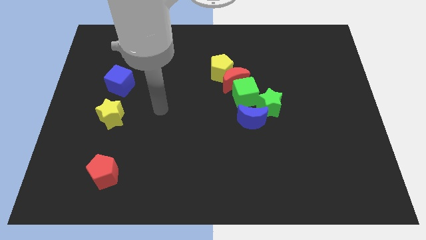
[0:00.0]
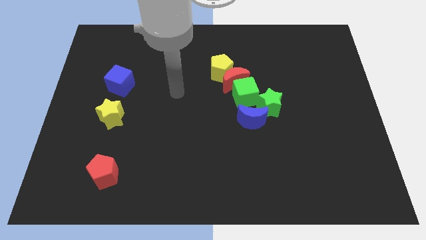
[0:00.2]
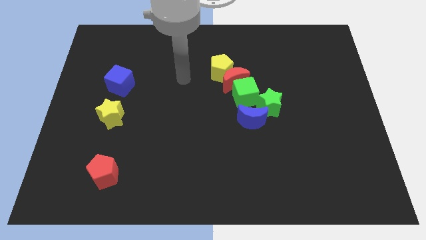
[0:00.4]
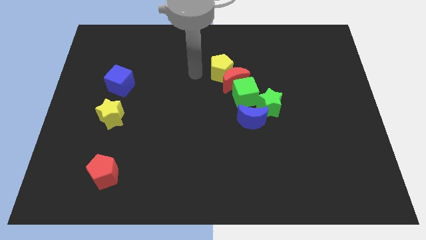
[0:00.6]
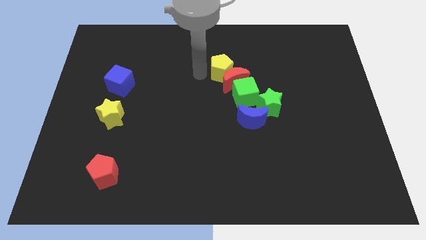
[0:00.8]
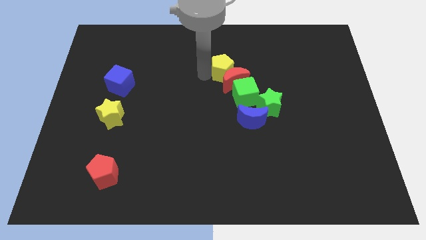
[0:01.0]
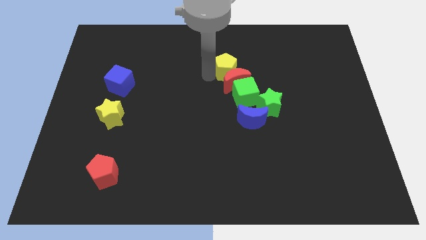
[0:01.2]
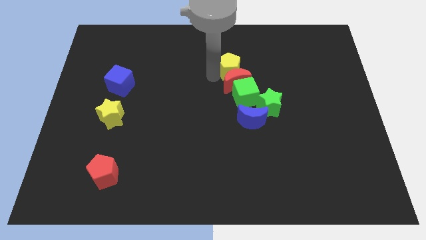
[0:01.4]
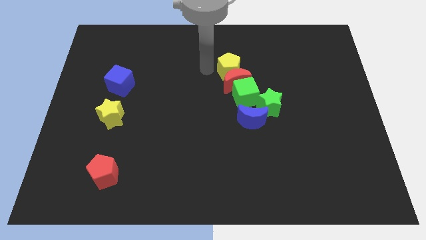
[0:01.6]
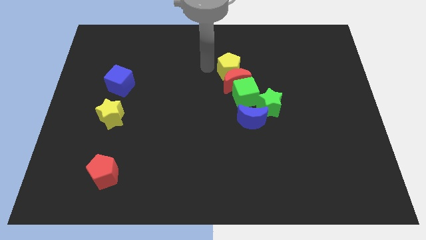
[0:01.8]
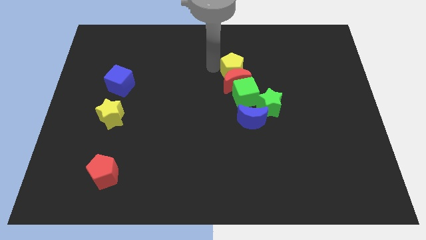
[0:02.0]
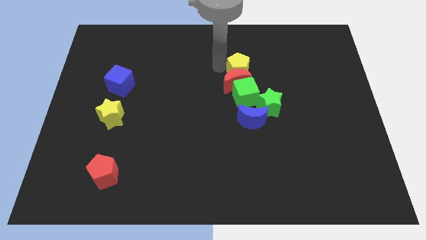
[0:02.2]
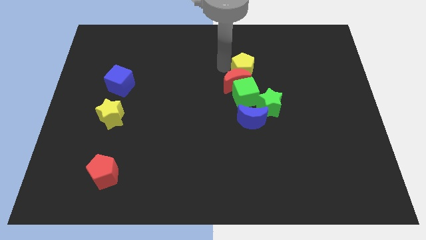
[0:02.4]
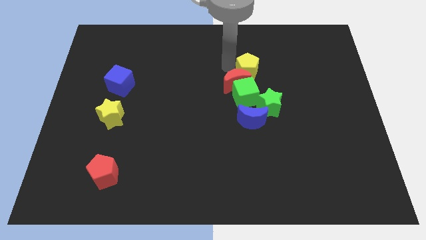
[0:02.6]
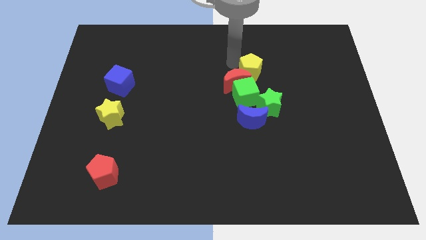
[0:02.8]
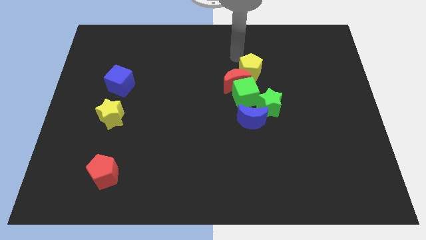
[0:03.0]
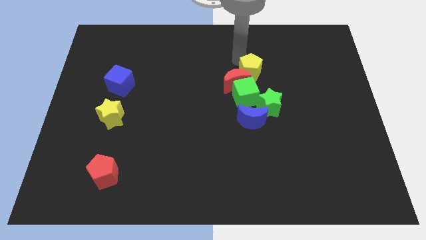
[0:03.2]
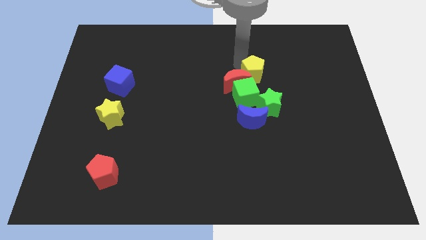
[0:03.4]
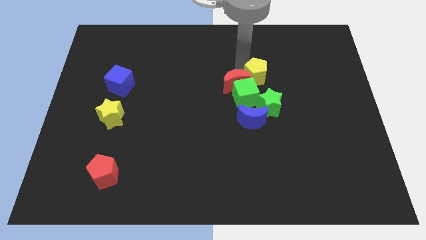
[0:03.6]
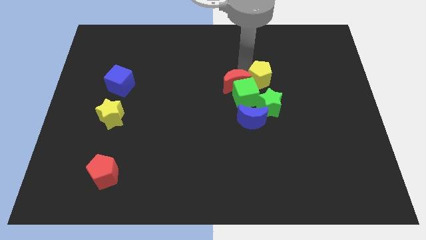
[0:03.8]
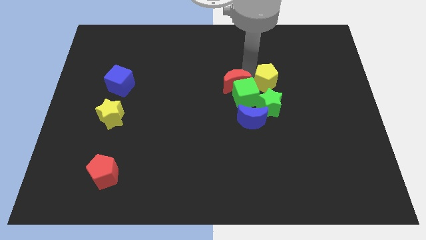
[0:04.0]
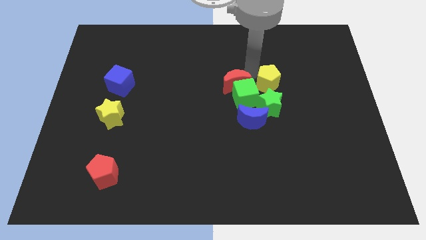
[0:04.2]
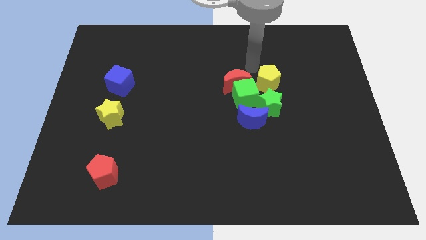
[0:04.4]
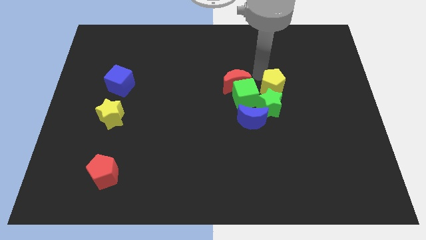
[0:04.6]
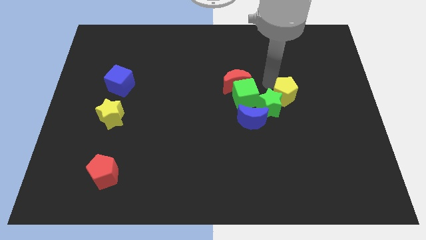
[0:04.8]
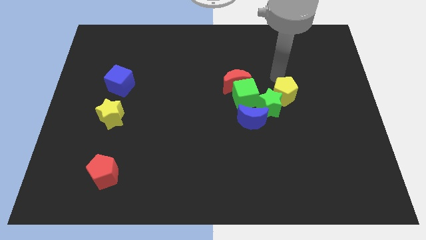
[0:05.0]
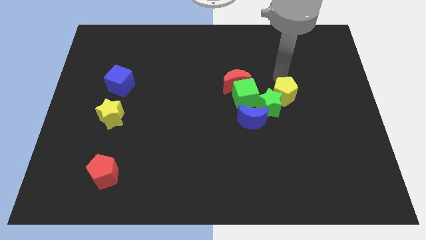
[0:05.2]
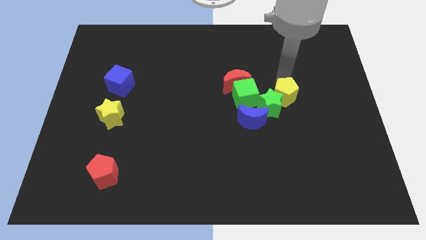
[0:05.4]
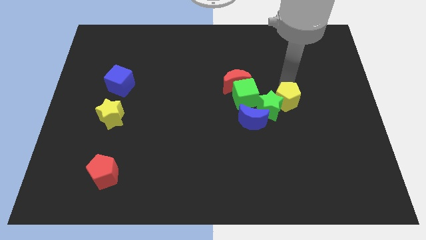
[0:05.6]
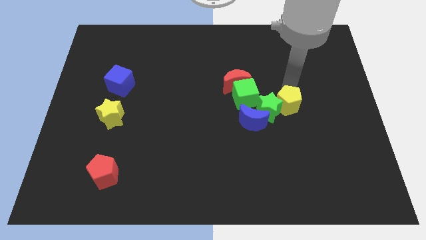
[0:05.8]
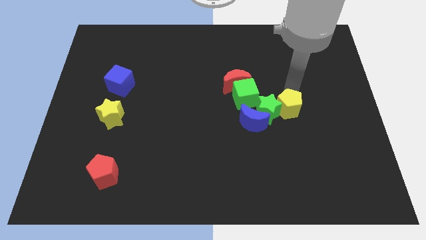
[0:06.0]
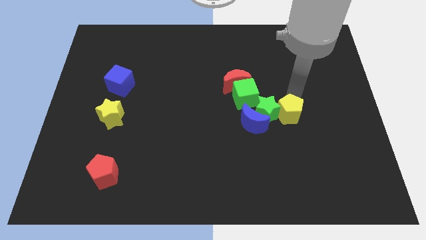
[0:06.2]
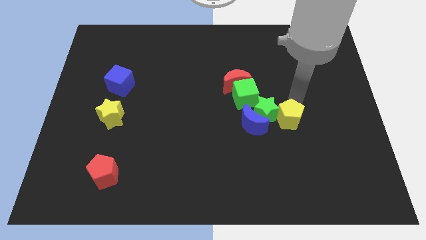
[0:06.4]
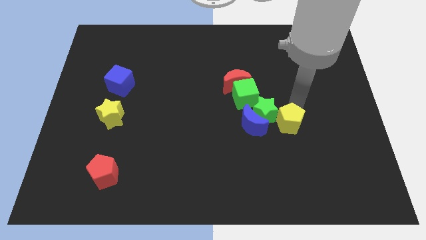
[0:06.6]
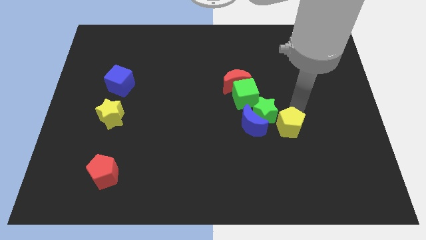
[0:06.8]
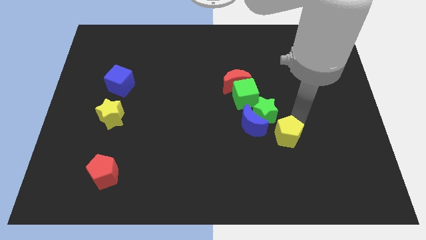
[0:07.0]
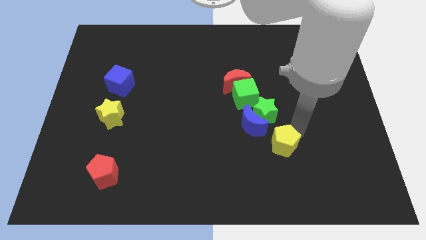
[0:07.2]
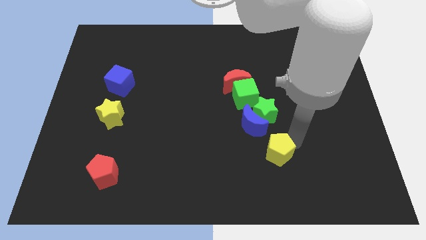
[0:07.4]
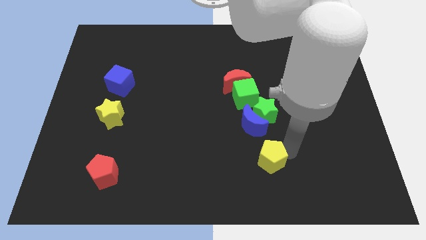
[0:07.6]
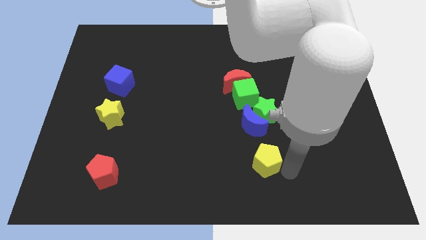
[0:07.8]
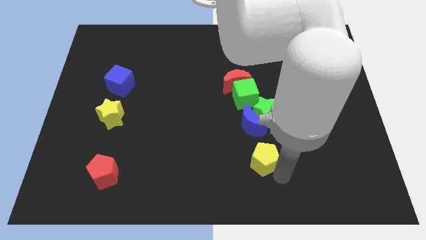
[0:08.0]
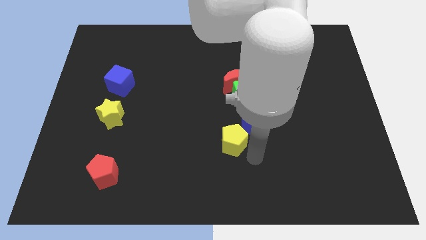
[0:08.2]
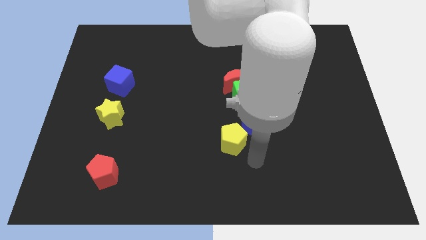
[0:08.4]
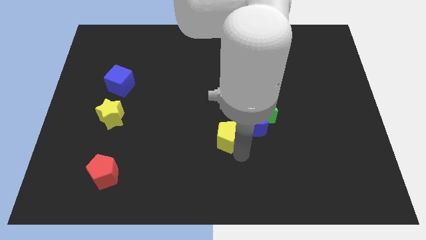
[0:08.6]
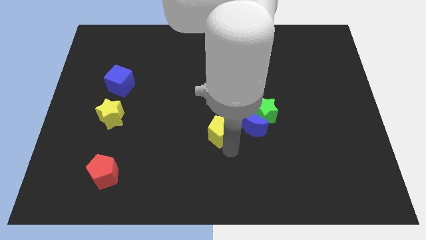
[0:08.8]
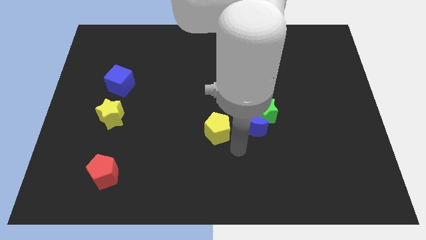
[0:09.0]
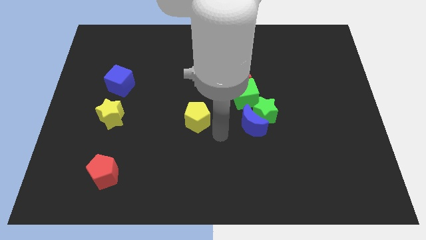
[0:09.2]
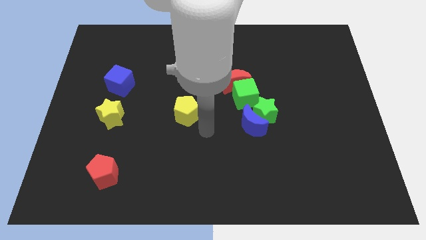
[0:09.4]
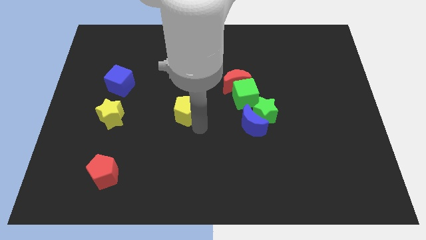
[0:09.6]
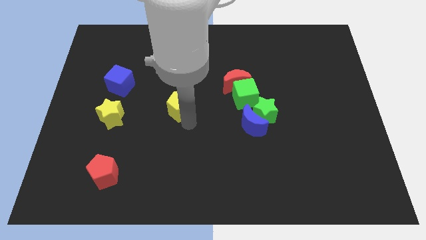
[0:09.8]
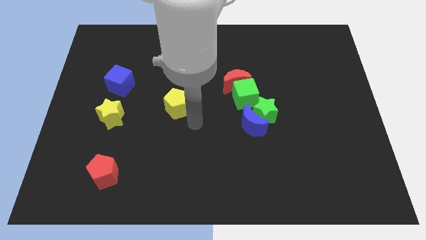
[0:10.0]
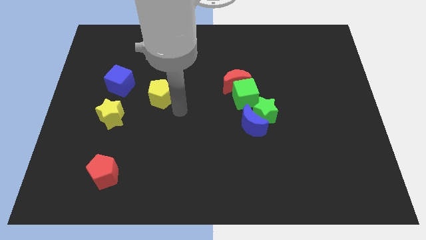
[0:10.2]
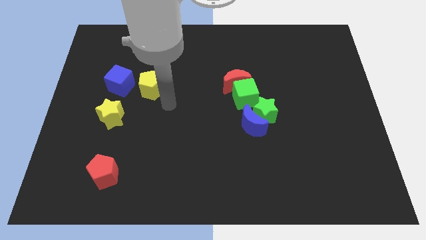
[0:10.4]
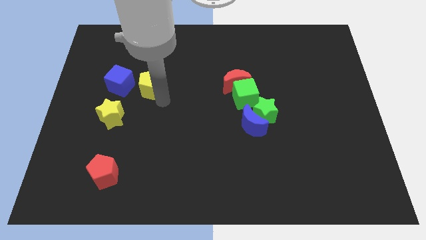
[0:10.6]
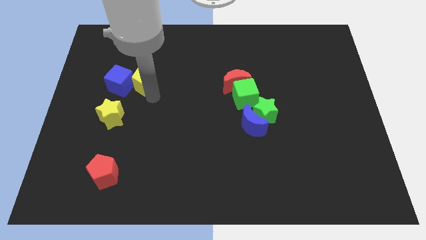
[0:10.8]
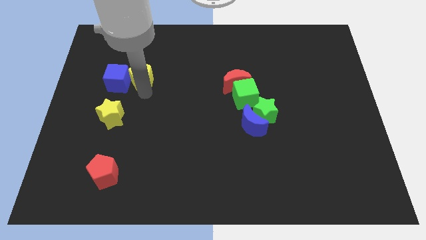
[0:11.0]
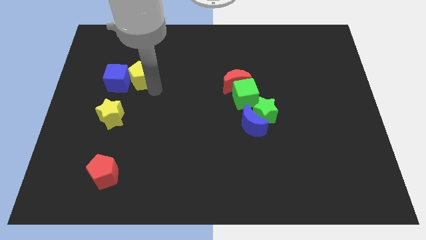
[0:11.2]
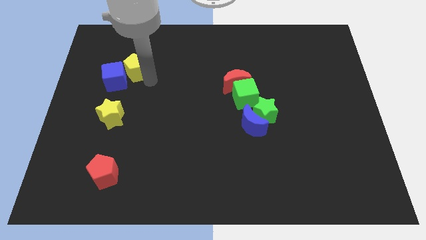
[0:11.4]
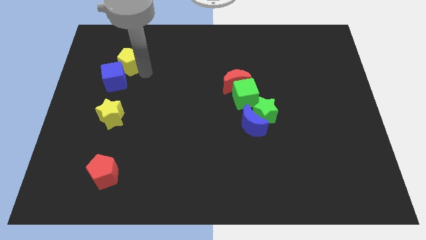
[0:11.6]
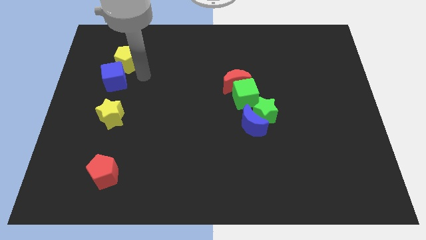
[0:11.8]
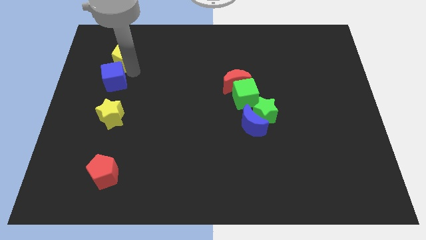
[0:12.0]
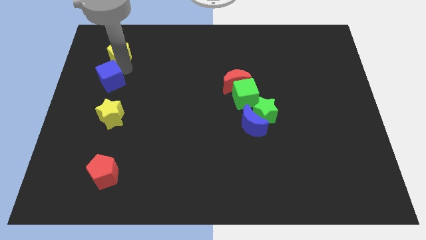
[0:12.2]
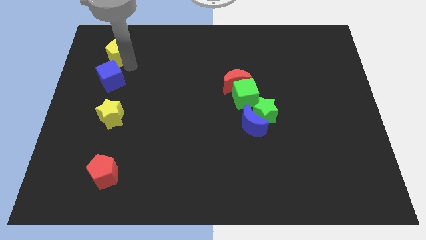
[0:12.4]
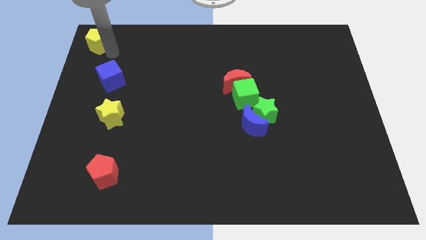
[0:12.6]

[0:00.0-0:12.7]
slide the yellow pentagon to the upper left corner

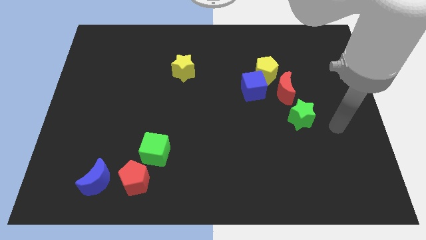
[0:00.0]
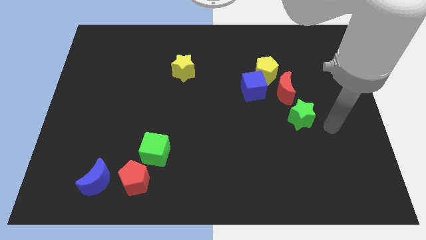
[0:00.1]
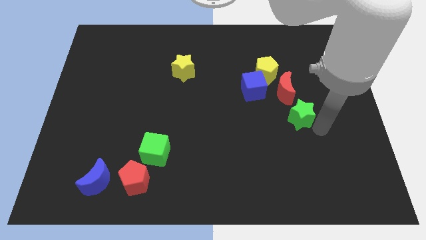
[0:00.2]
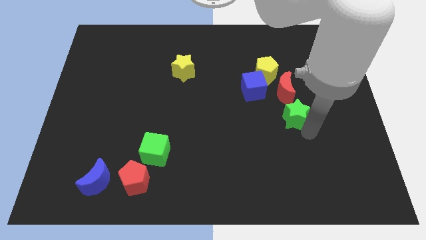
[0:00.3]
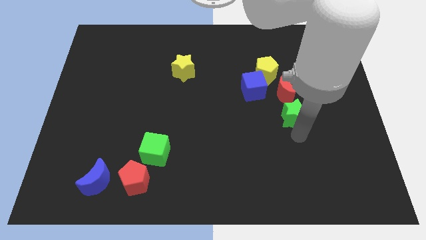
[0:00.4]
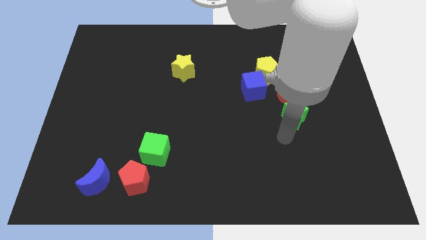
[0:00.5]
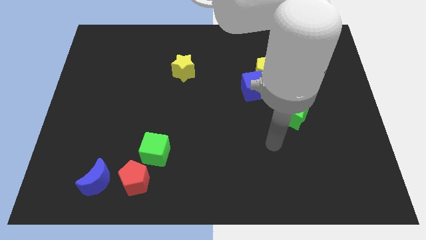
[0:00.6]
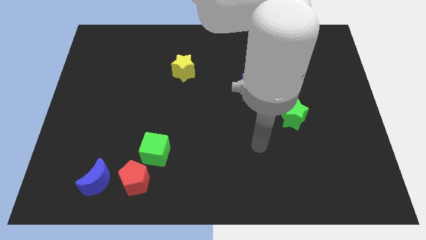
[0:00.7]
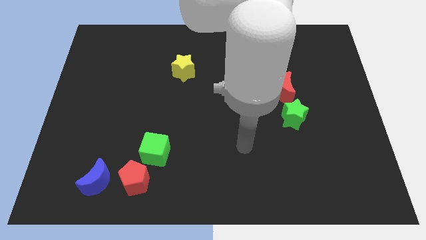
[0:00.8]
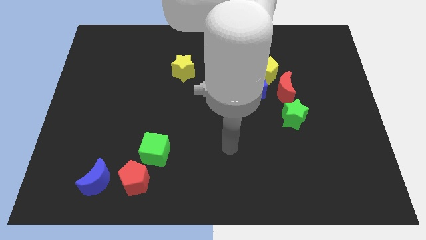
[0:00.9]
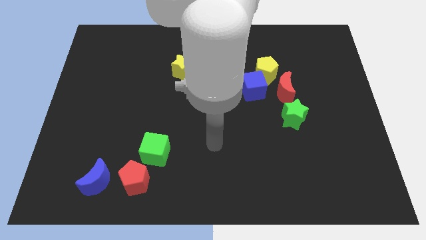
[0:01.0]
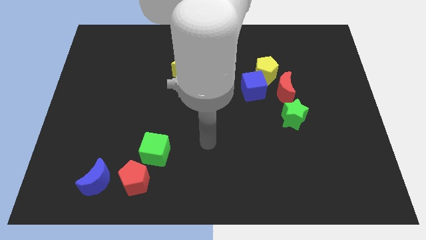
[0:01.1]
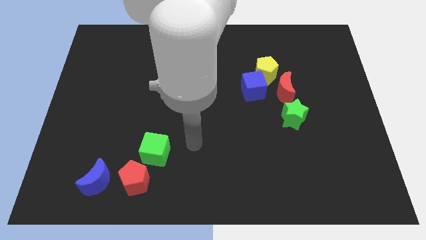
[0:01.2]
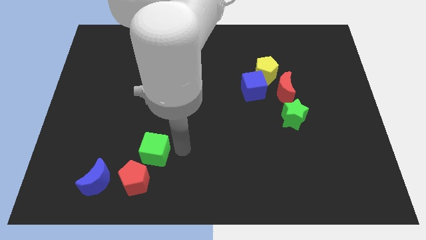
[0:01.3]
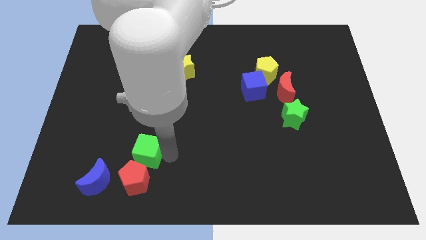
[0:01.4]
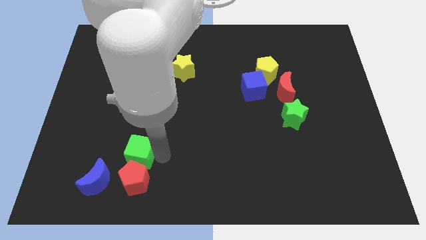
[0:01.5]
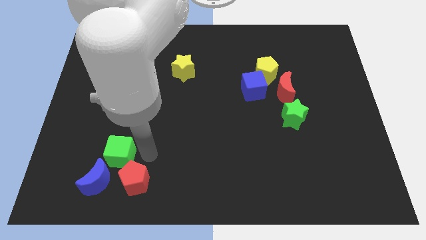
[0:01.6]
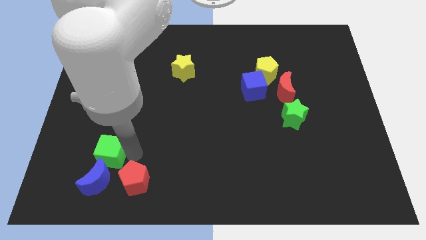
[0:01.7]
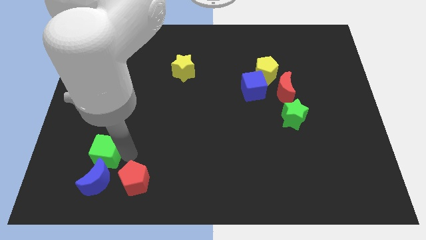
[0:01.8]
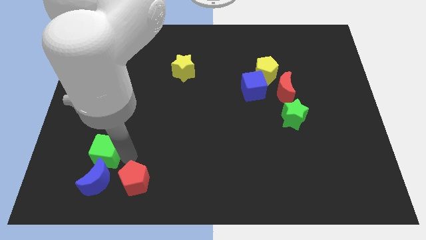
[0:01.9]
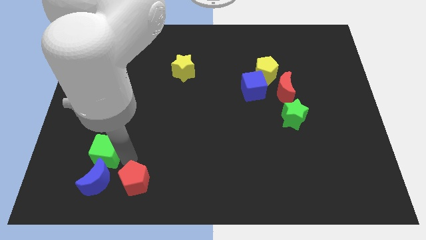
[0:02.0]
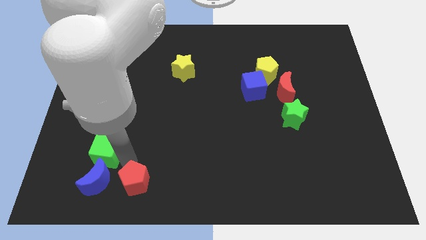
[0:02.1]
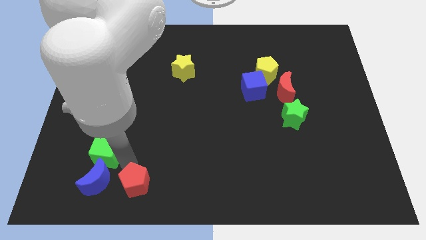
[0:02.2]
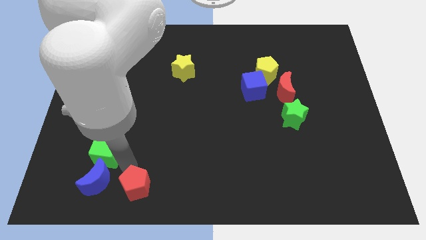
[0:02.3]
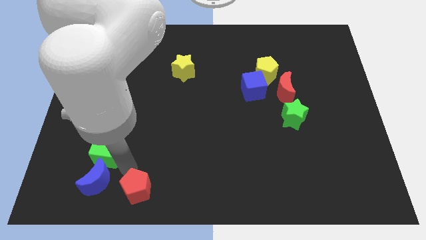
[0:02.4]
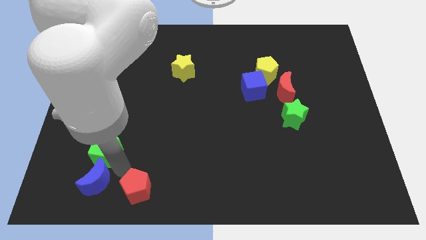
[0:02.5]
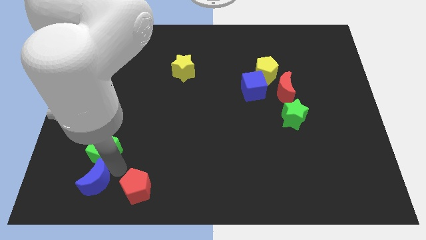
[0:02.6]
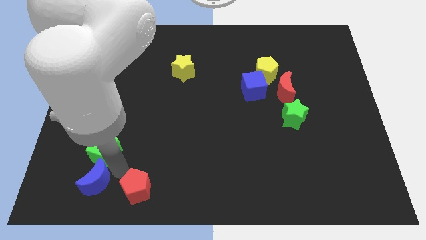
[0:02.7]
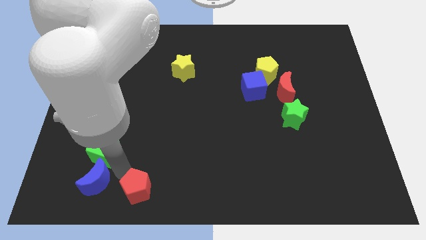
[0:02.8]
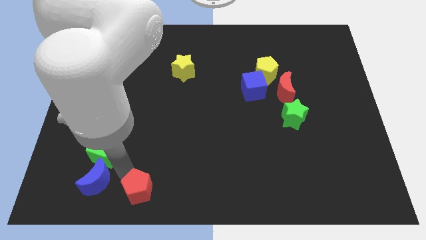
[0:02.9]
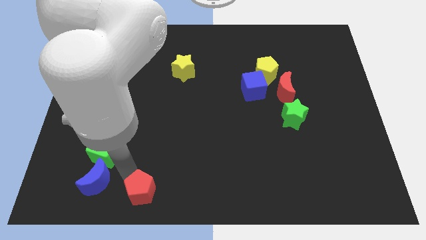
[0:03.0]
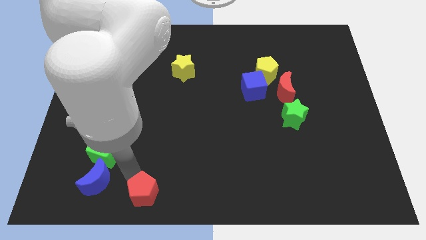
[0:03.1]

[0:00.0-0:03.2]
slide the red pentagon to the bottom side
